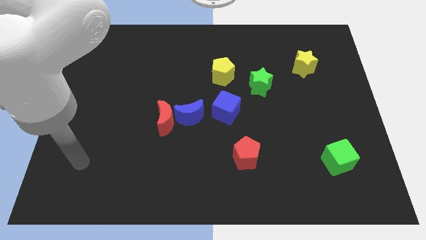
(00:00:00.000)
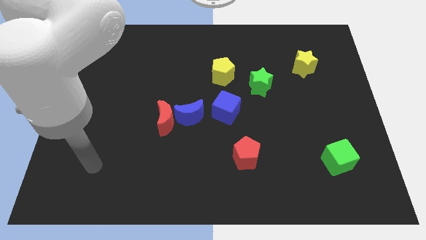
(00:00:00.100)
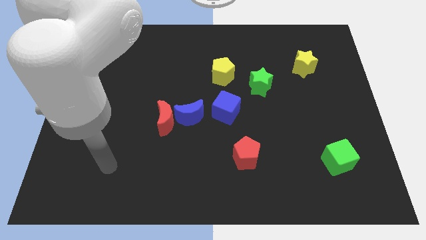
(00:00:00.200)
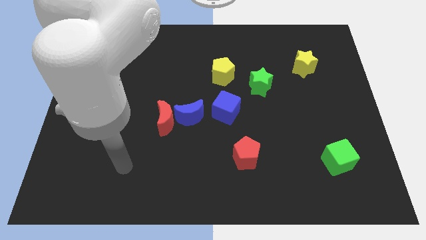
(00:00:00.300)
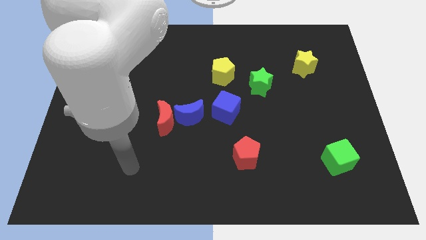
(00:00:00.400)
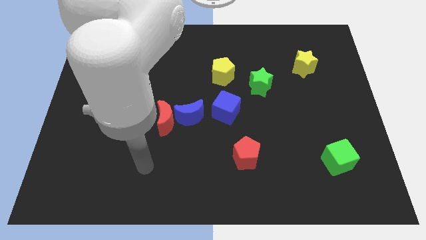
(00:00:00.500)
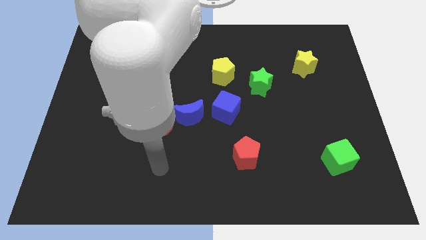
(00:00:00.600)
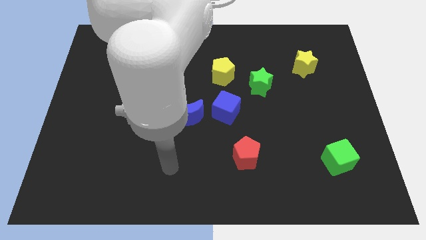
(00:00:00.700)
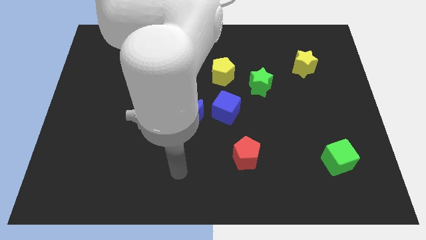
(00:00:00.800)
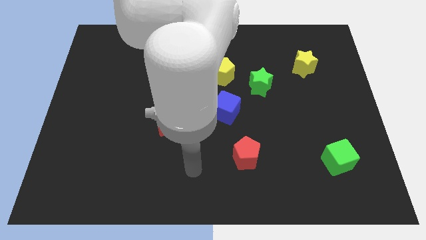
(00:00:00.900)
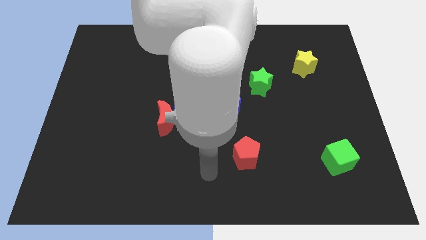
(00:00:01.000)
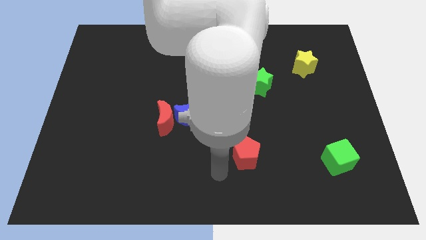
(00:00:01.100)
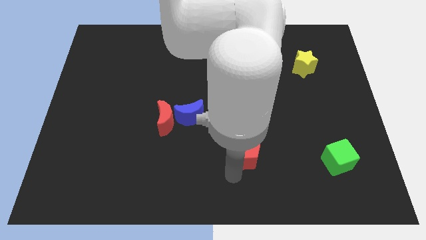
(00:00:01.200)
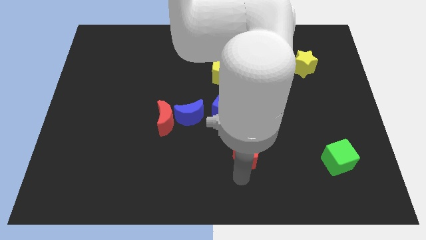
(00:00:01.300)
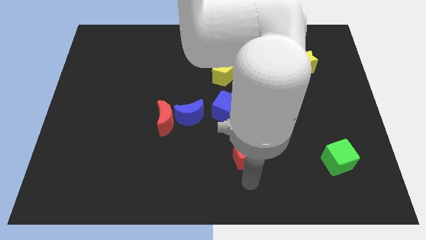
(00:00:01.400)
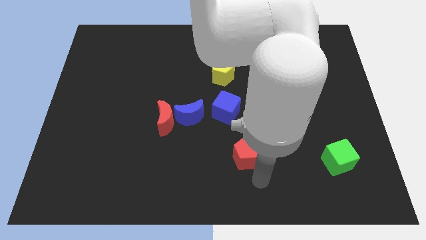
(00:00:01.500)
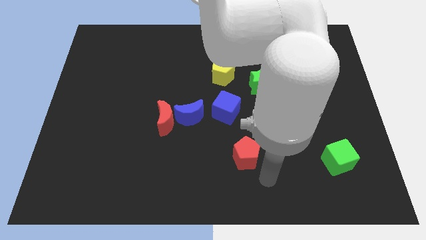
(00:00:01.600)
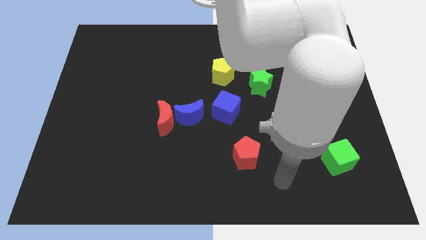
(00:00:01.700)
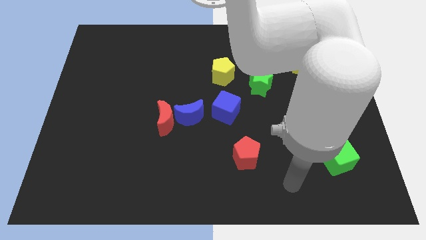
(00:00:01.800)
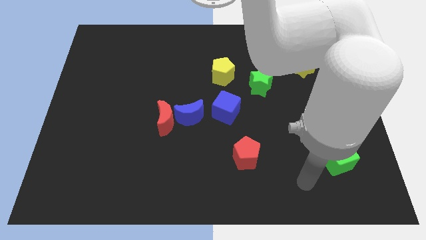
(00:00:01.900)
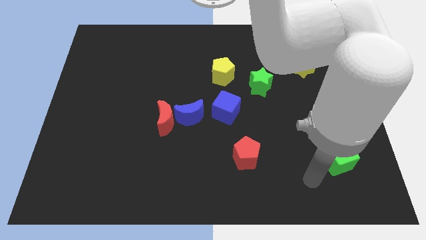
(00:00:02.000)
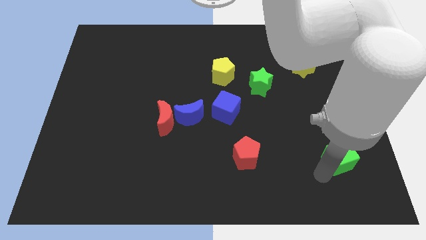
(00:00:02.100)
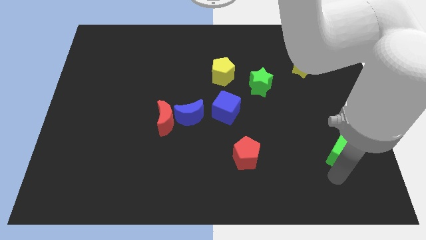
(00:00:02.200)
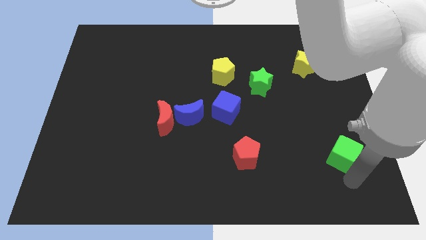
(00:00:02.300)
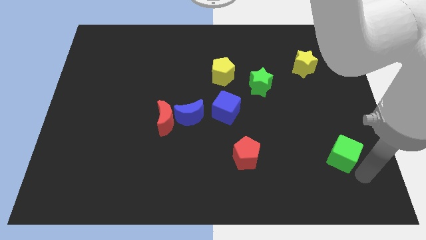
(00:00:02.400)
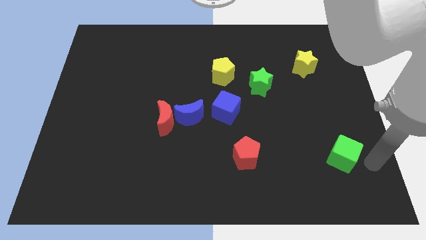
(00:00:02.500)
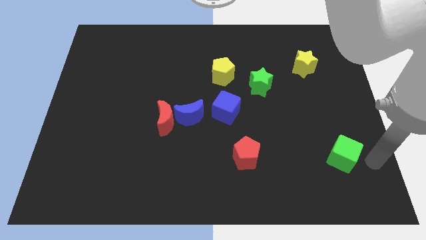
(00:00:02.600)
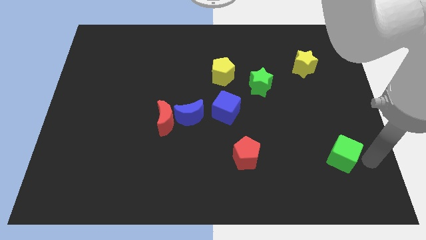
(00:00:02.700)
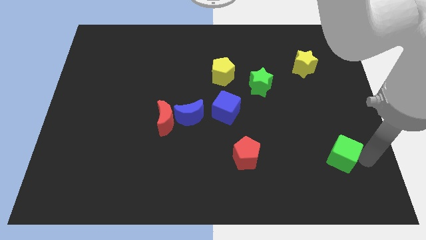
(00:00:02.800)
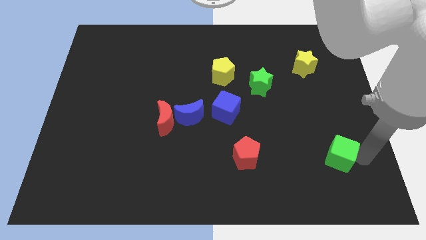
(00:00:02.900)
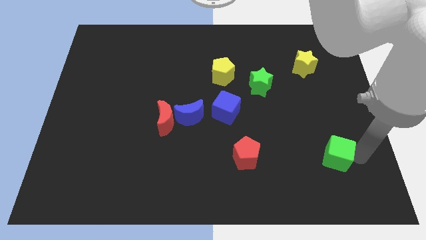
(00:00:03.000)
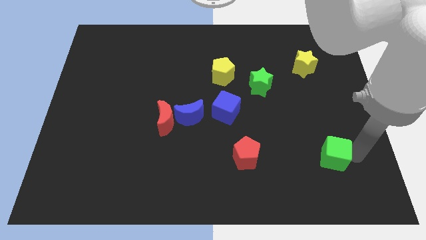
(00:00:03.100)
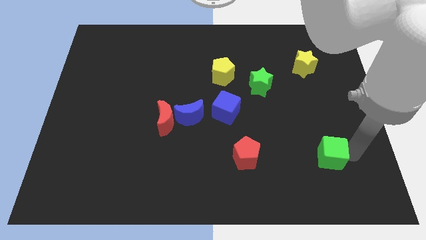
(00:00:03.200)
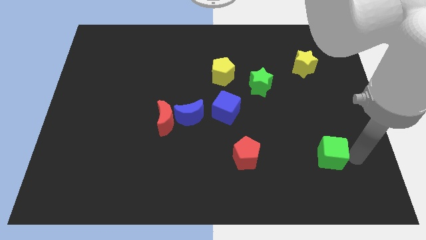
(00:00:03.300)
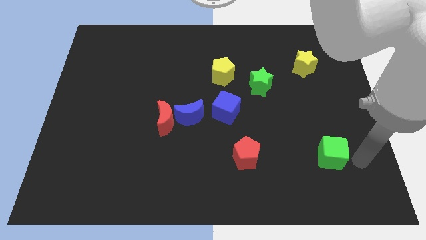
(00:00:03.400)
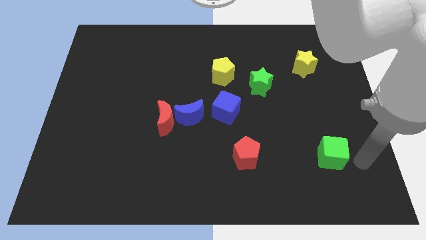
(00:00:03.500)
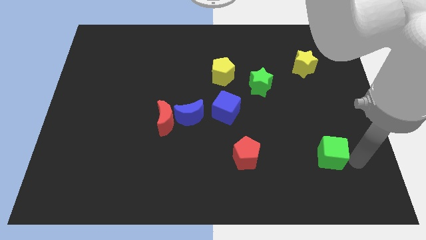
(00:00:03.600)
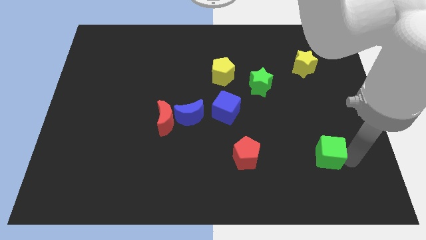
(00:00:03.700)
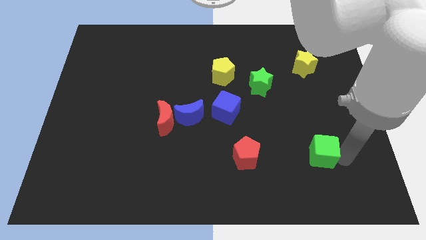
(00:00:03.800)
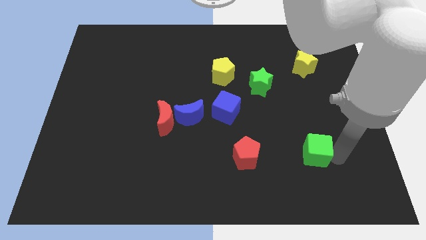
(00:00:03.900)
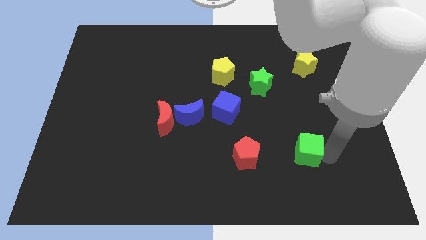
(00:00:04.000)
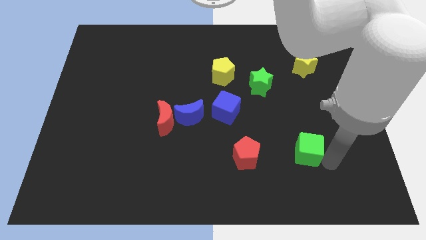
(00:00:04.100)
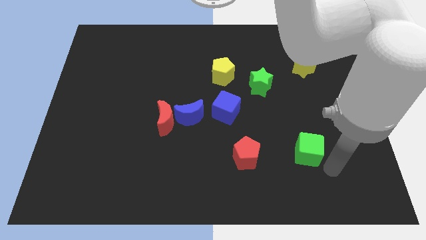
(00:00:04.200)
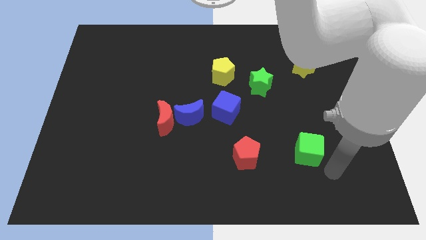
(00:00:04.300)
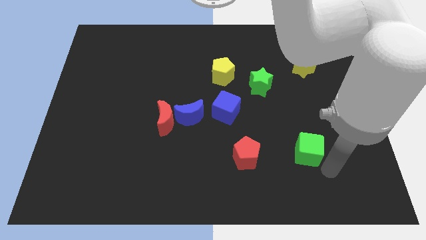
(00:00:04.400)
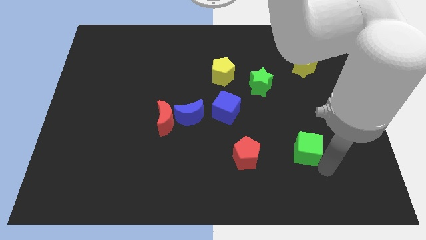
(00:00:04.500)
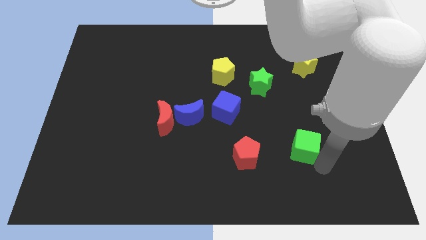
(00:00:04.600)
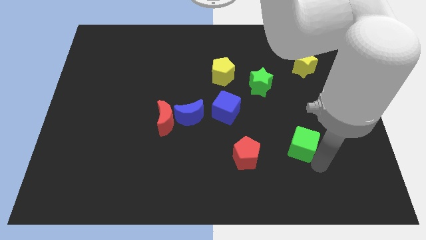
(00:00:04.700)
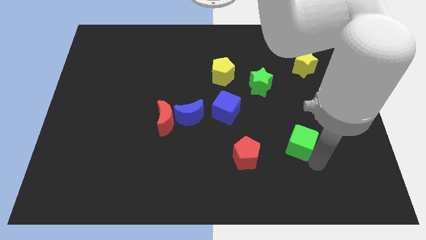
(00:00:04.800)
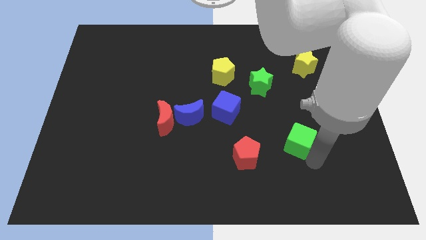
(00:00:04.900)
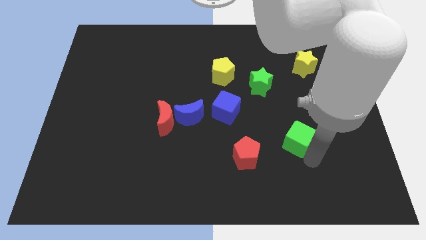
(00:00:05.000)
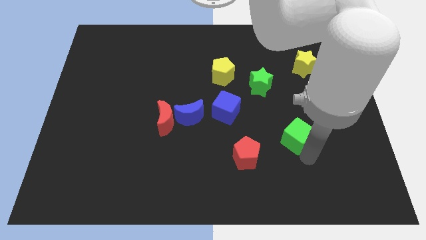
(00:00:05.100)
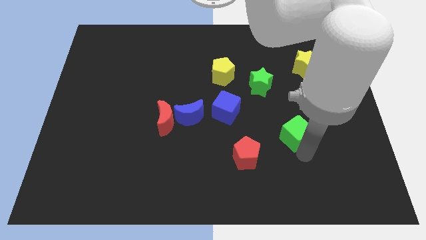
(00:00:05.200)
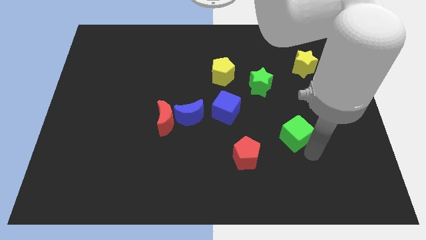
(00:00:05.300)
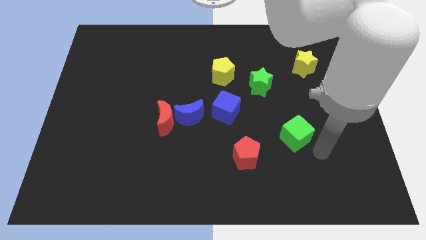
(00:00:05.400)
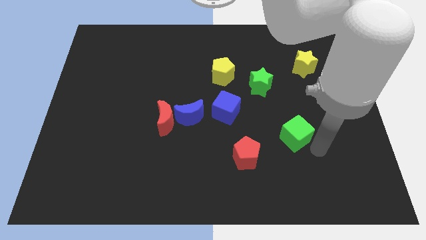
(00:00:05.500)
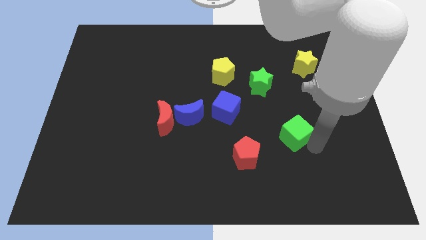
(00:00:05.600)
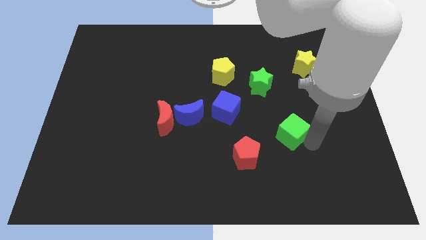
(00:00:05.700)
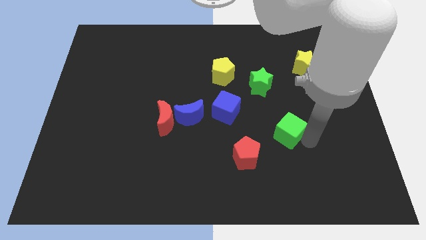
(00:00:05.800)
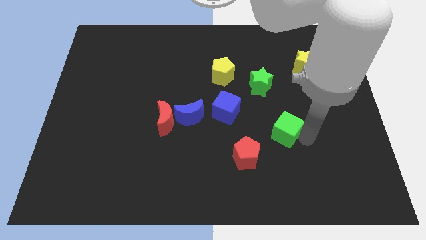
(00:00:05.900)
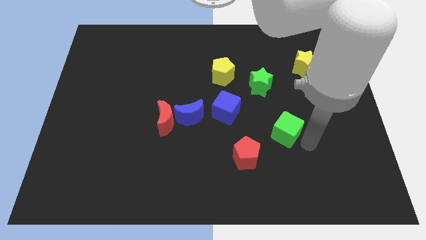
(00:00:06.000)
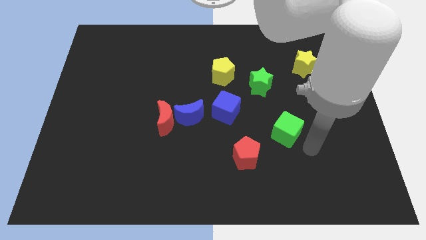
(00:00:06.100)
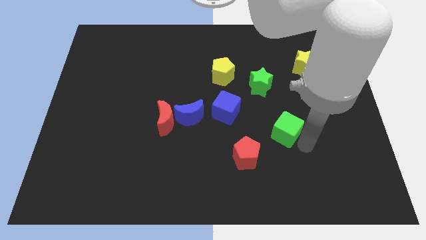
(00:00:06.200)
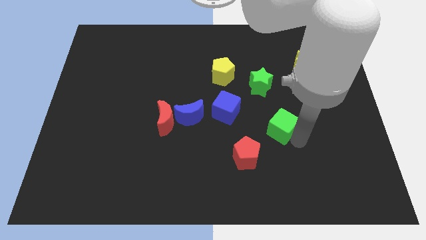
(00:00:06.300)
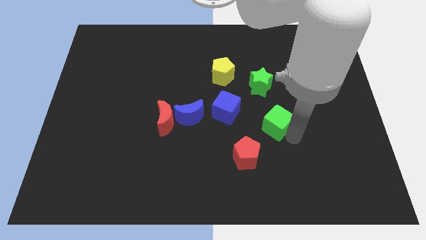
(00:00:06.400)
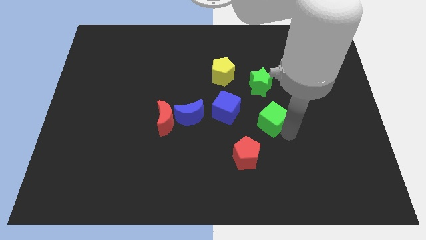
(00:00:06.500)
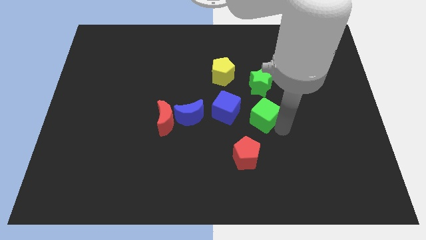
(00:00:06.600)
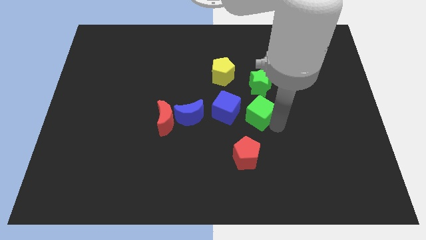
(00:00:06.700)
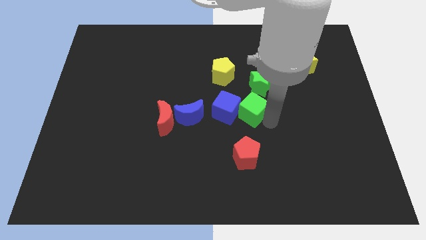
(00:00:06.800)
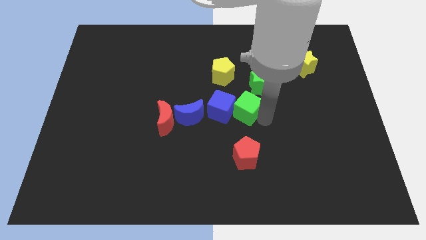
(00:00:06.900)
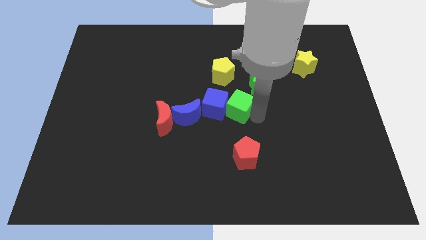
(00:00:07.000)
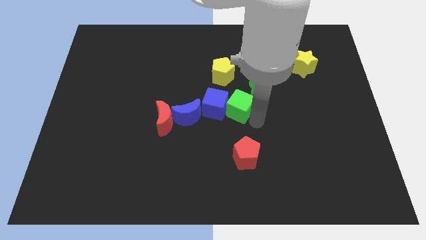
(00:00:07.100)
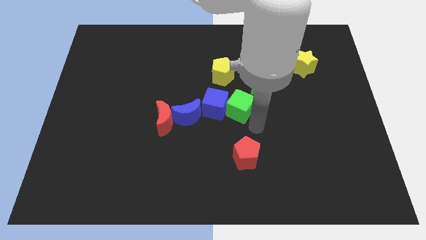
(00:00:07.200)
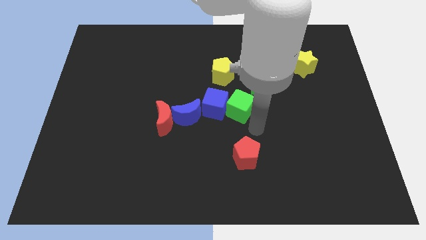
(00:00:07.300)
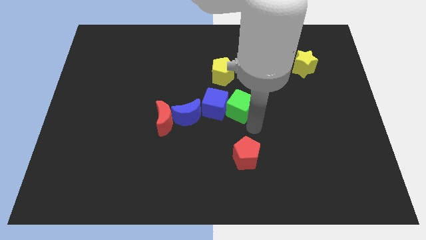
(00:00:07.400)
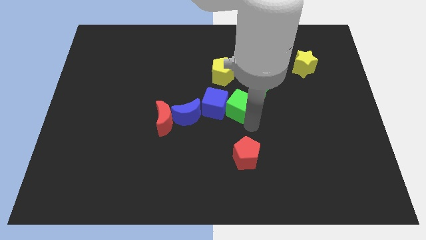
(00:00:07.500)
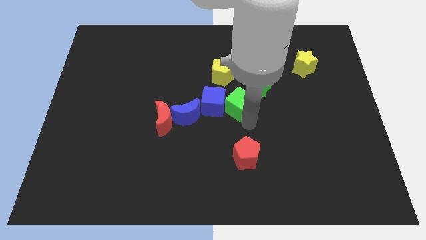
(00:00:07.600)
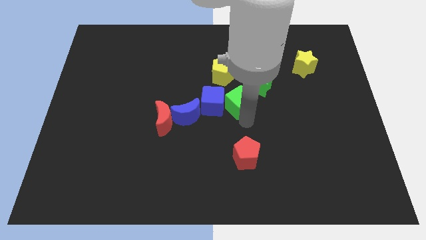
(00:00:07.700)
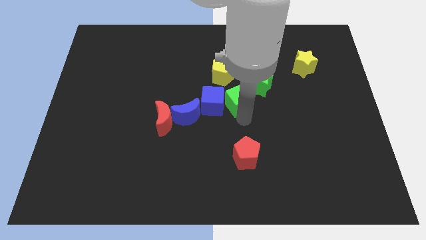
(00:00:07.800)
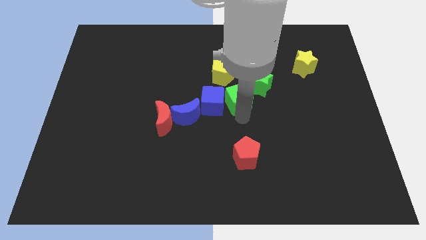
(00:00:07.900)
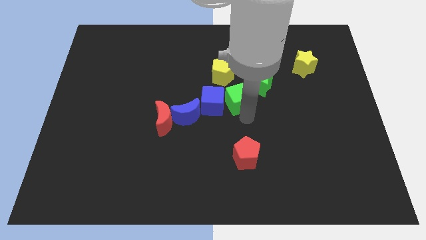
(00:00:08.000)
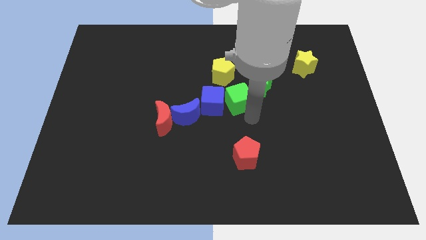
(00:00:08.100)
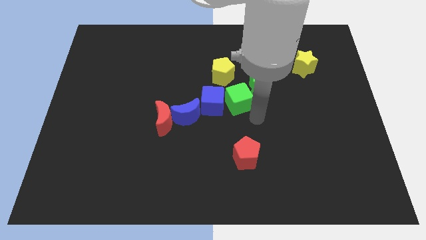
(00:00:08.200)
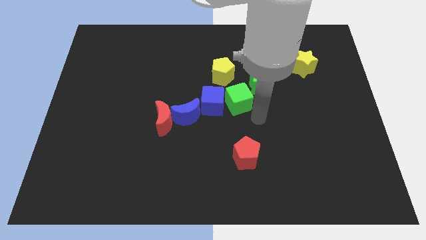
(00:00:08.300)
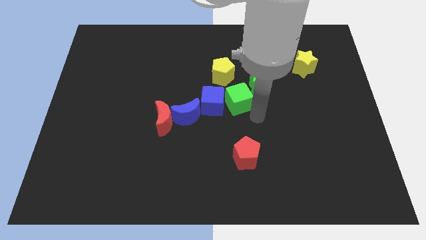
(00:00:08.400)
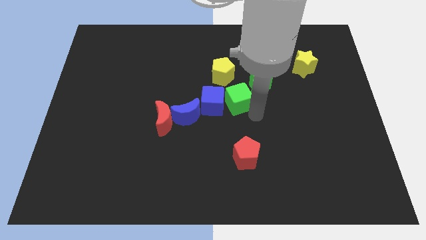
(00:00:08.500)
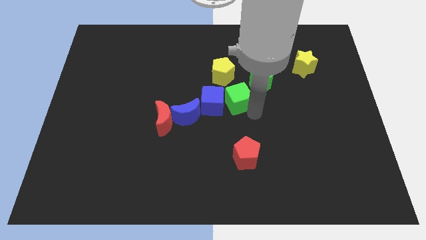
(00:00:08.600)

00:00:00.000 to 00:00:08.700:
slide the green cube just left of the green star
